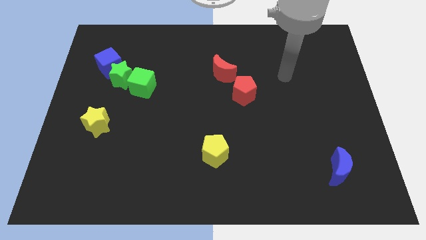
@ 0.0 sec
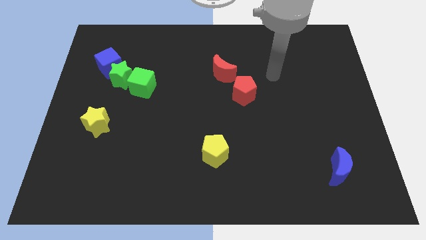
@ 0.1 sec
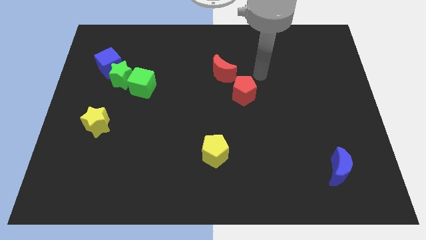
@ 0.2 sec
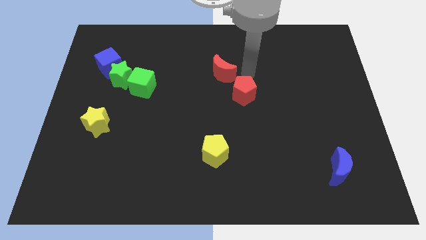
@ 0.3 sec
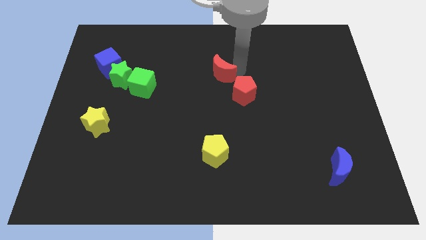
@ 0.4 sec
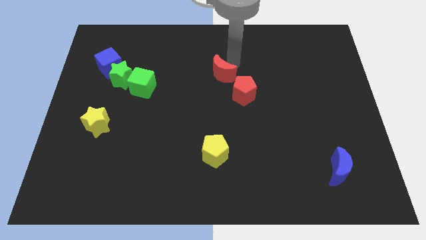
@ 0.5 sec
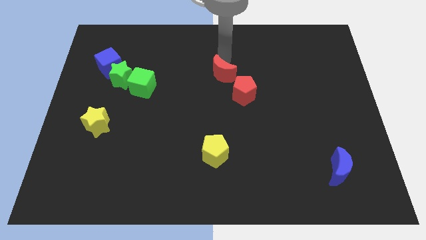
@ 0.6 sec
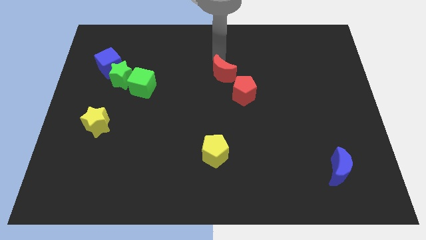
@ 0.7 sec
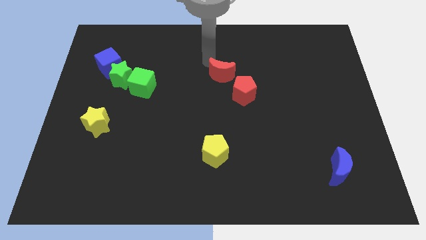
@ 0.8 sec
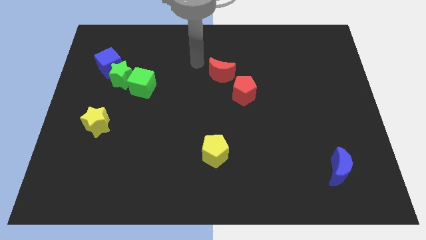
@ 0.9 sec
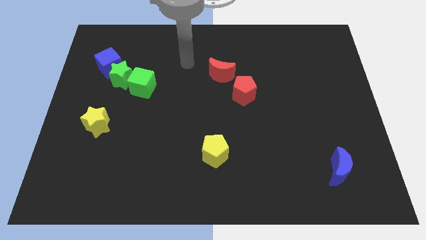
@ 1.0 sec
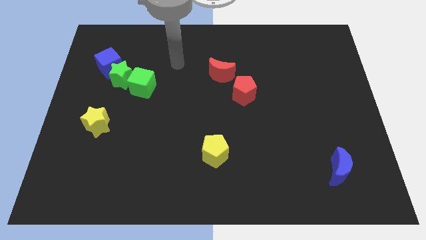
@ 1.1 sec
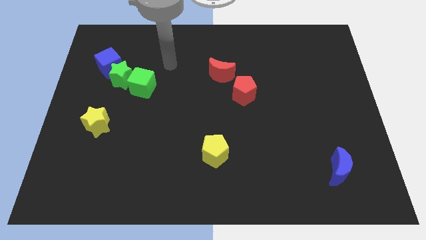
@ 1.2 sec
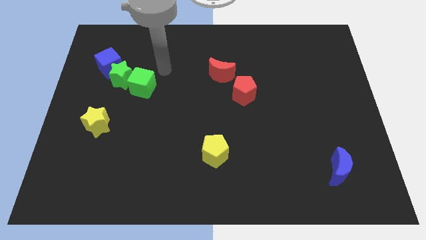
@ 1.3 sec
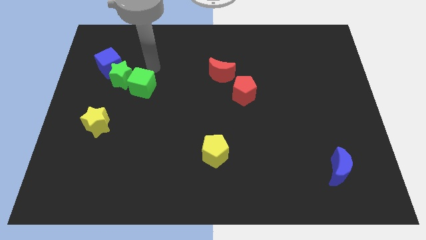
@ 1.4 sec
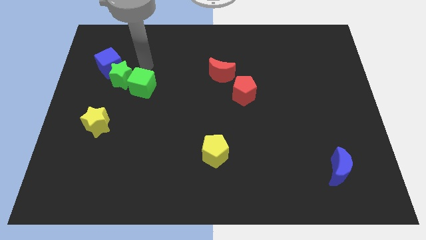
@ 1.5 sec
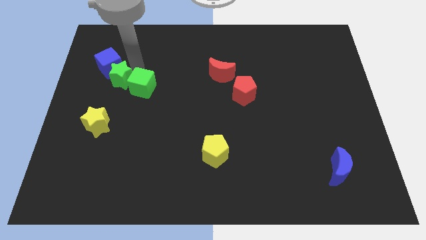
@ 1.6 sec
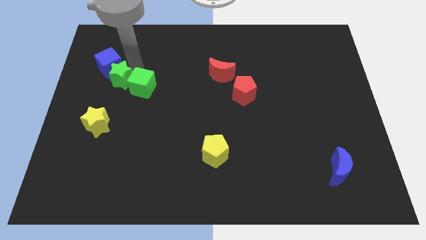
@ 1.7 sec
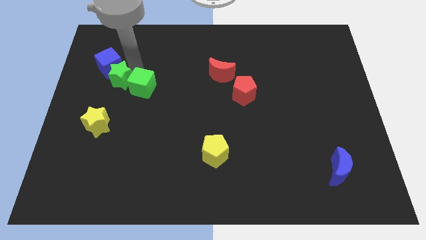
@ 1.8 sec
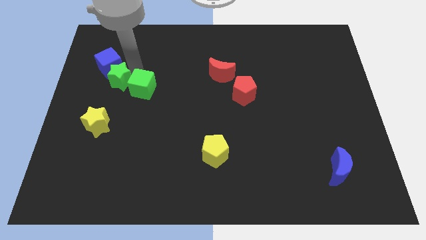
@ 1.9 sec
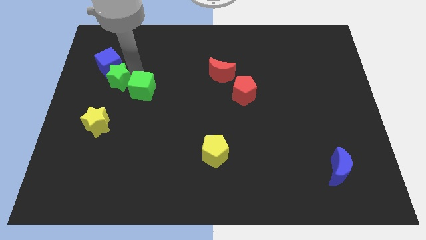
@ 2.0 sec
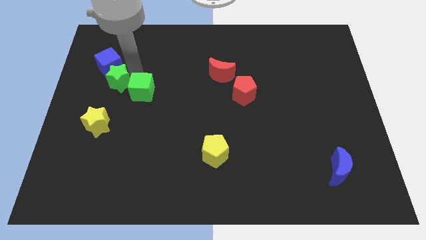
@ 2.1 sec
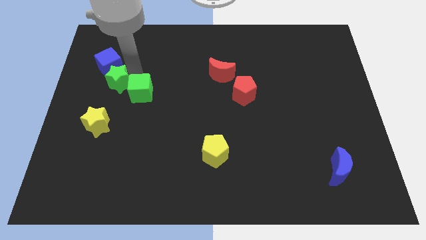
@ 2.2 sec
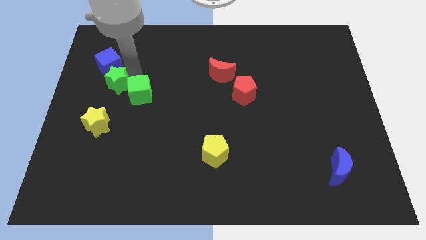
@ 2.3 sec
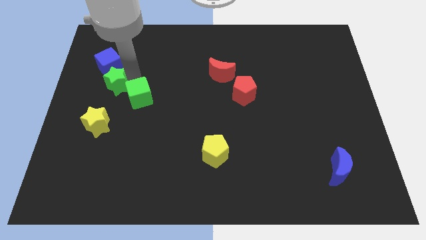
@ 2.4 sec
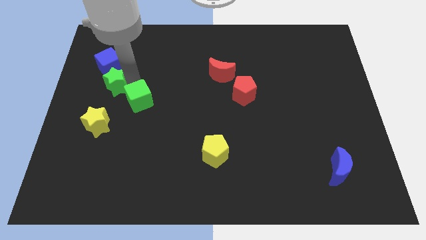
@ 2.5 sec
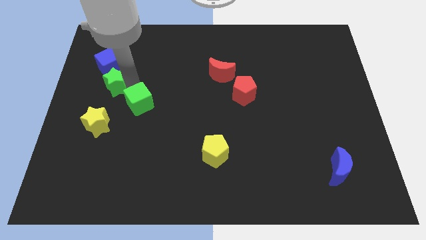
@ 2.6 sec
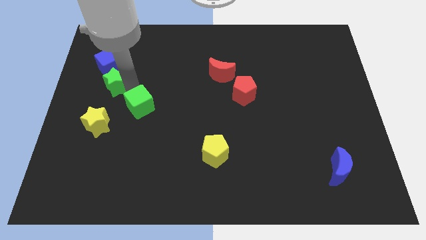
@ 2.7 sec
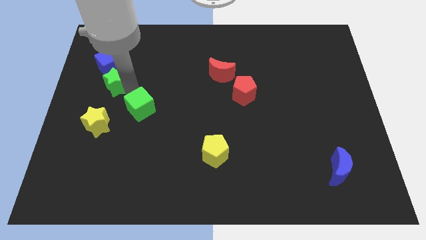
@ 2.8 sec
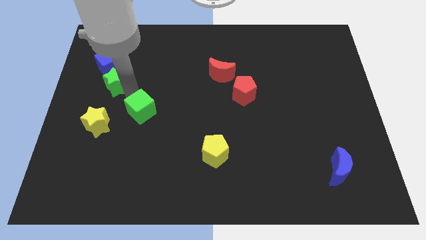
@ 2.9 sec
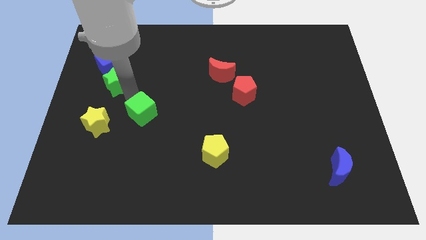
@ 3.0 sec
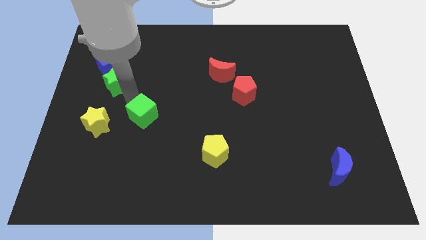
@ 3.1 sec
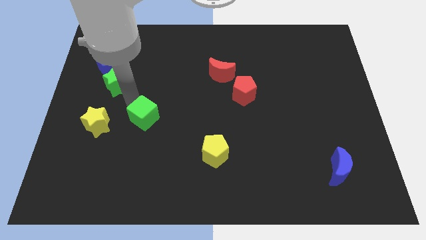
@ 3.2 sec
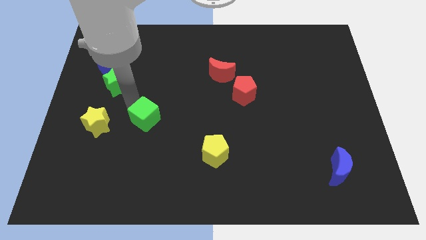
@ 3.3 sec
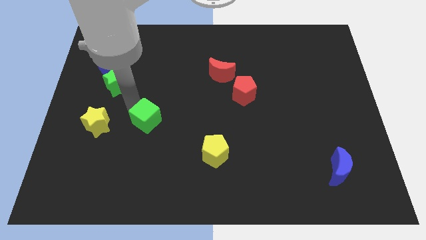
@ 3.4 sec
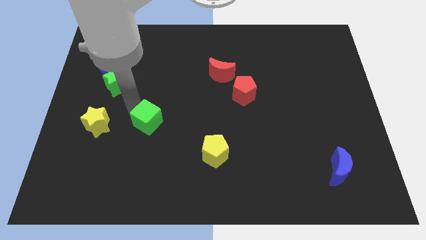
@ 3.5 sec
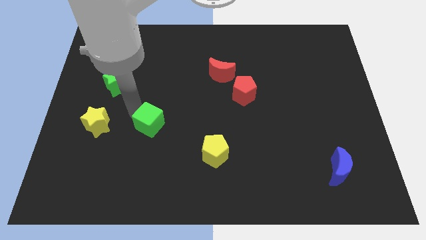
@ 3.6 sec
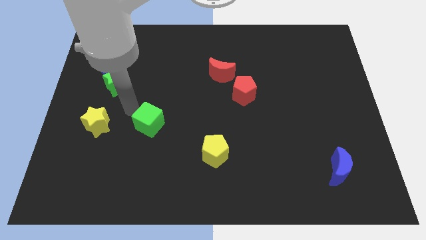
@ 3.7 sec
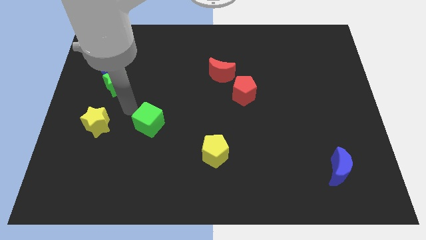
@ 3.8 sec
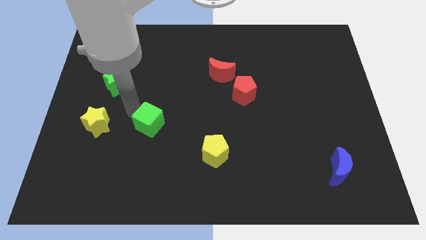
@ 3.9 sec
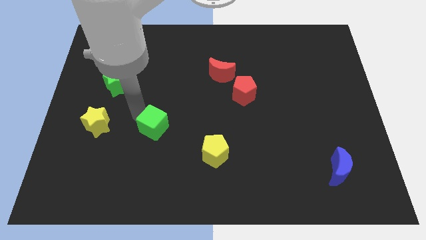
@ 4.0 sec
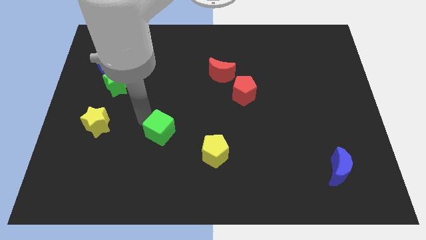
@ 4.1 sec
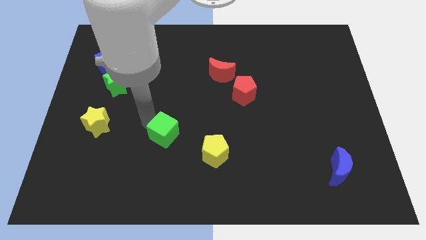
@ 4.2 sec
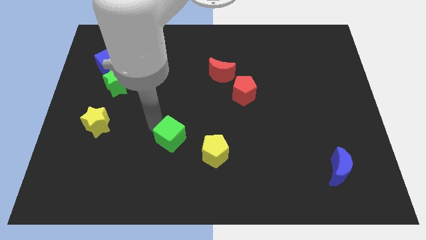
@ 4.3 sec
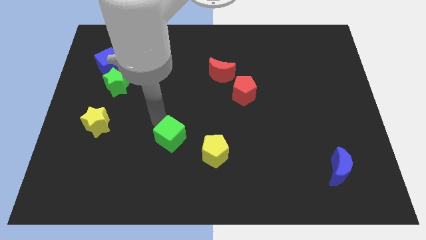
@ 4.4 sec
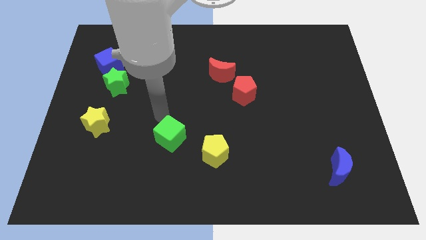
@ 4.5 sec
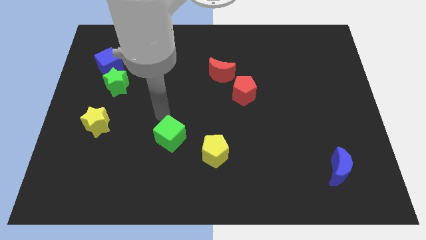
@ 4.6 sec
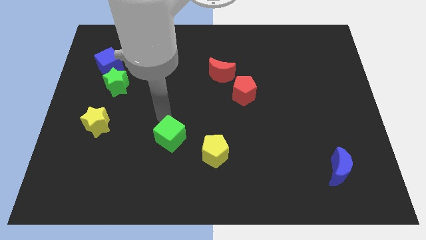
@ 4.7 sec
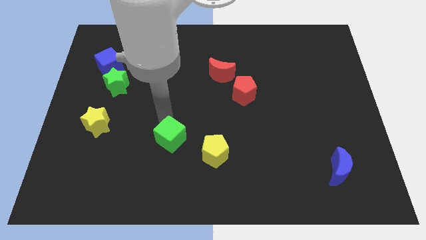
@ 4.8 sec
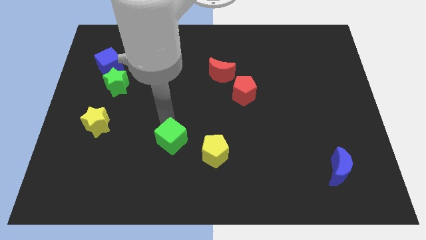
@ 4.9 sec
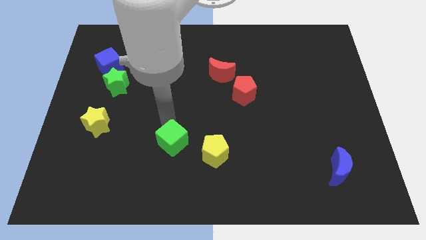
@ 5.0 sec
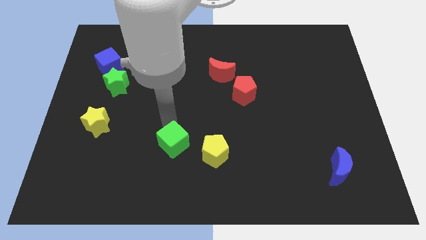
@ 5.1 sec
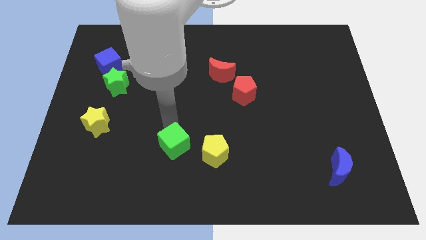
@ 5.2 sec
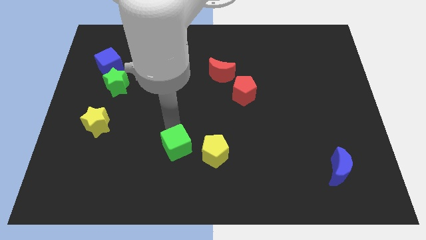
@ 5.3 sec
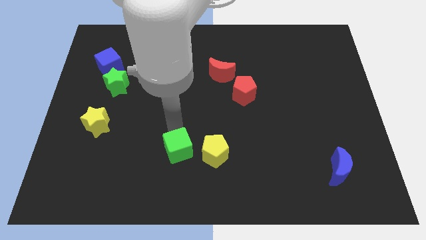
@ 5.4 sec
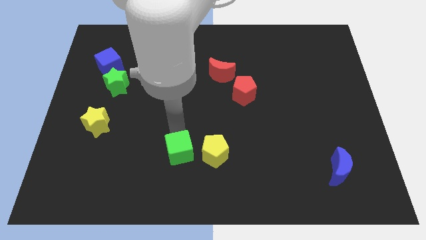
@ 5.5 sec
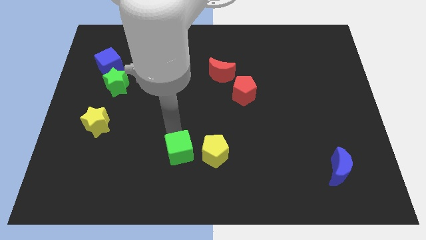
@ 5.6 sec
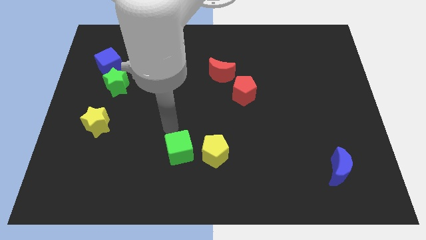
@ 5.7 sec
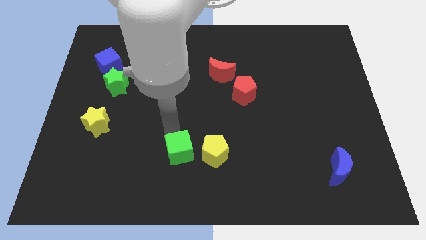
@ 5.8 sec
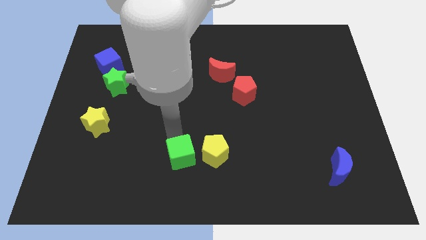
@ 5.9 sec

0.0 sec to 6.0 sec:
put the green cube diagonally down and to the left of the yellow pentagon

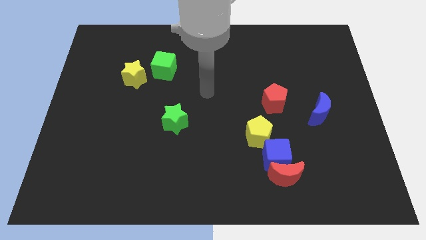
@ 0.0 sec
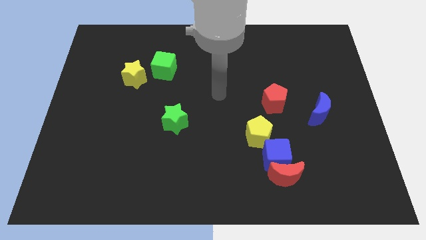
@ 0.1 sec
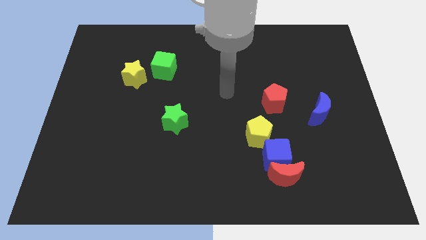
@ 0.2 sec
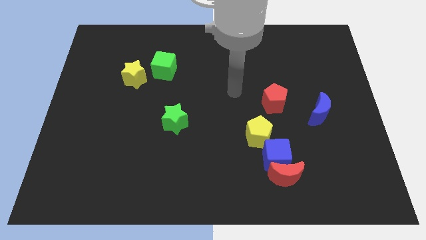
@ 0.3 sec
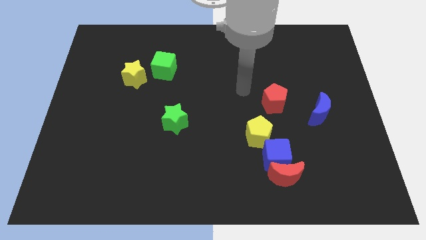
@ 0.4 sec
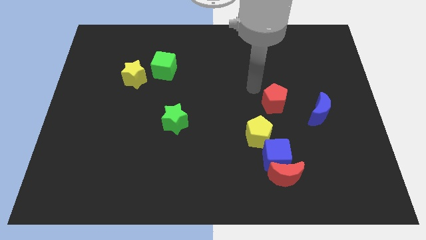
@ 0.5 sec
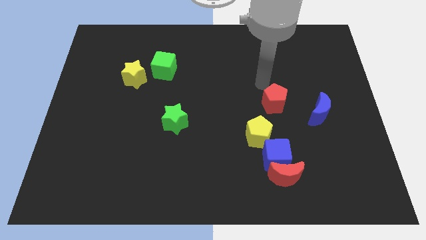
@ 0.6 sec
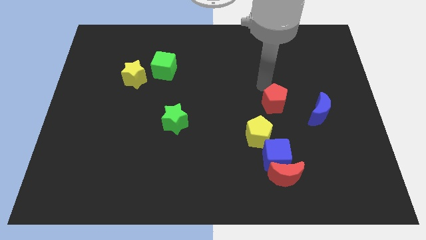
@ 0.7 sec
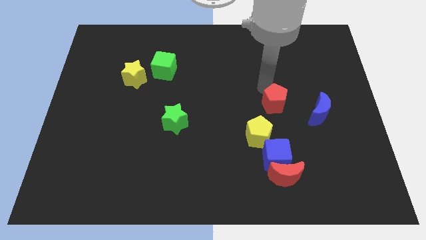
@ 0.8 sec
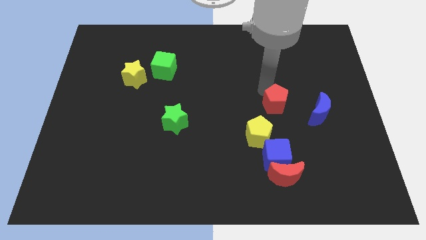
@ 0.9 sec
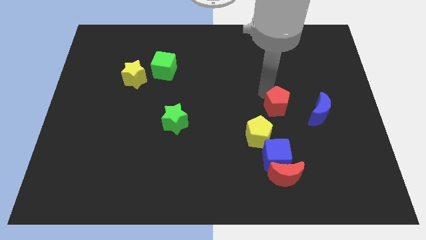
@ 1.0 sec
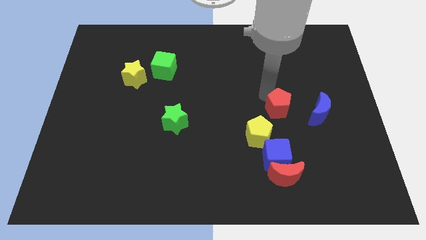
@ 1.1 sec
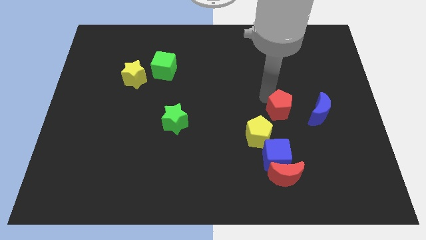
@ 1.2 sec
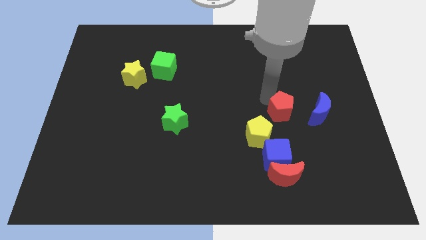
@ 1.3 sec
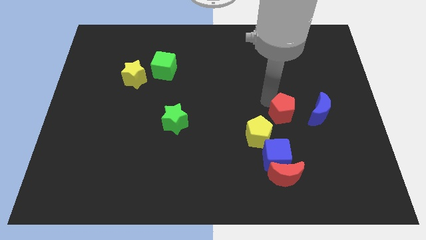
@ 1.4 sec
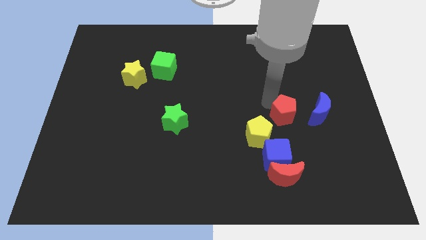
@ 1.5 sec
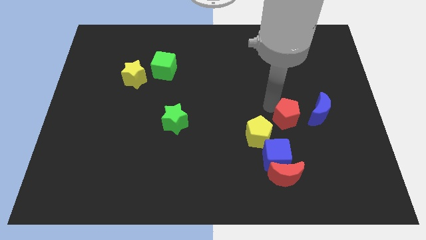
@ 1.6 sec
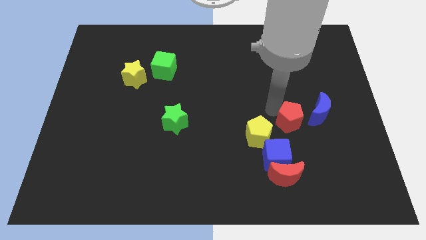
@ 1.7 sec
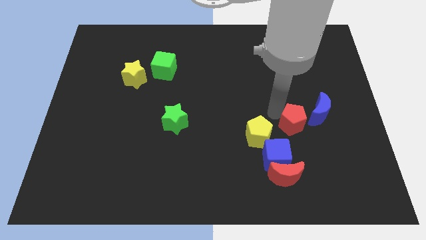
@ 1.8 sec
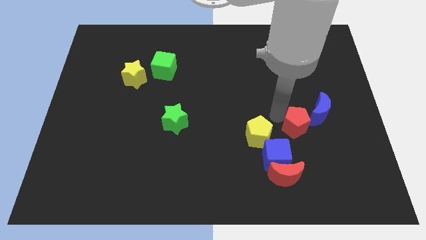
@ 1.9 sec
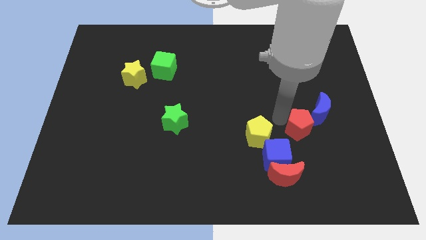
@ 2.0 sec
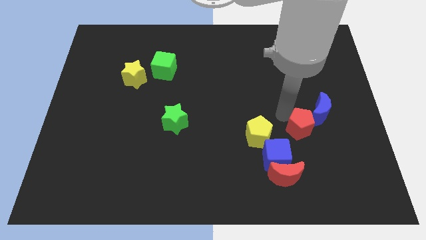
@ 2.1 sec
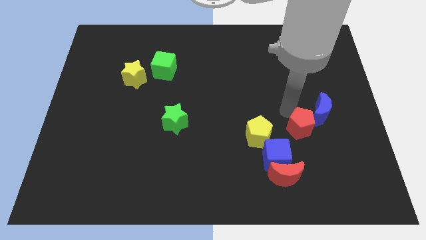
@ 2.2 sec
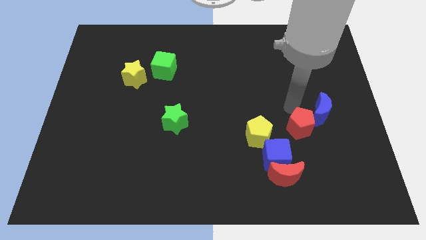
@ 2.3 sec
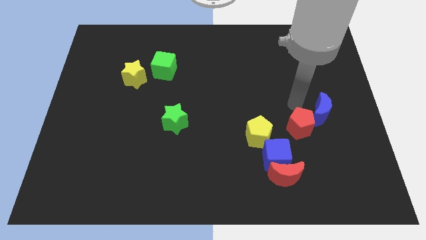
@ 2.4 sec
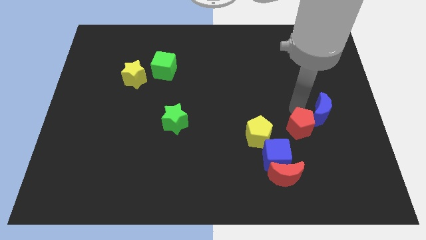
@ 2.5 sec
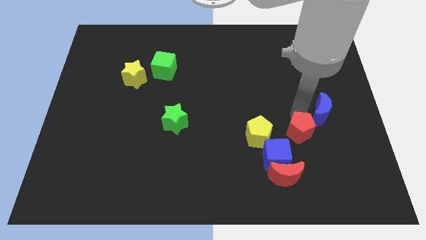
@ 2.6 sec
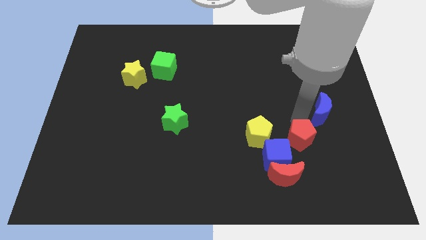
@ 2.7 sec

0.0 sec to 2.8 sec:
slide the red pentagon diagonally up and to the right of the red moon
